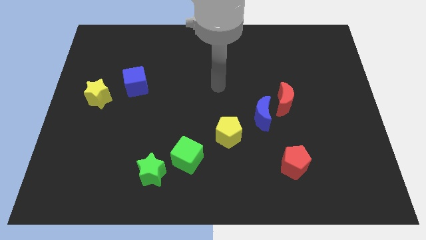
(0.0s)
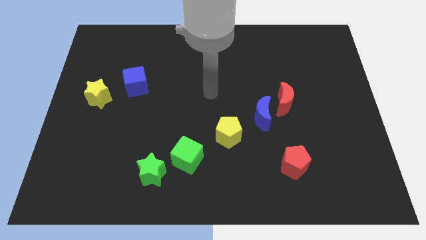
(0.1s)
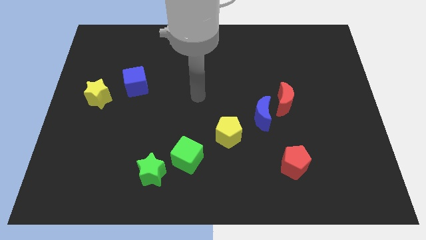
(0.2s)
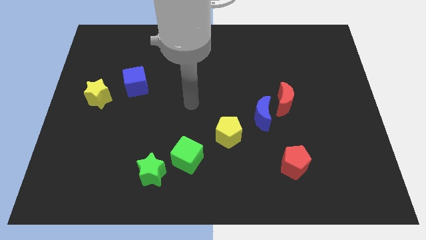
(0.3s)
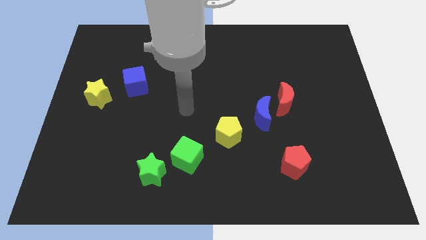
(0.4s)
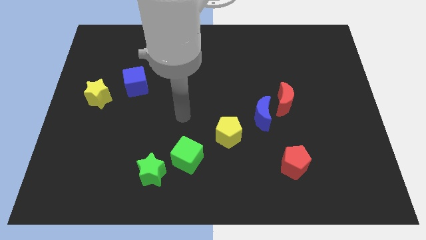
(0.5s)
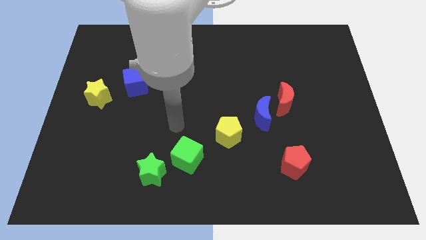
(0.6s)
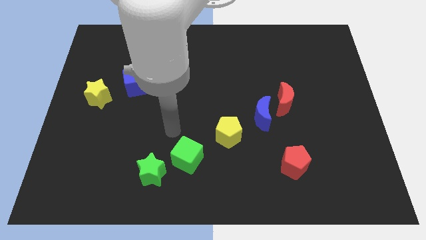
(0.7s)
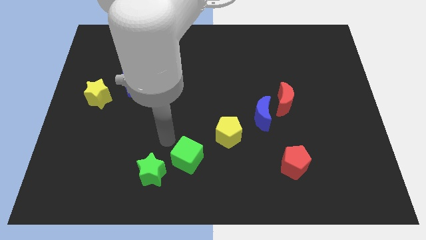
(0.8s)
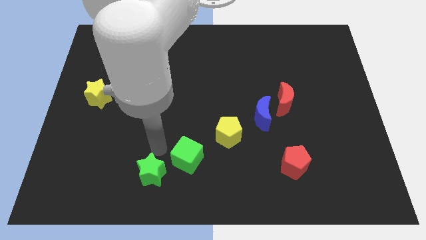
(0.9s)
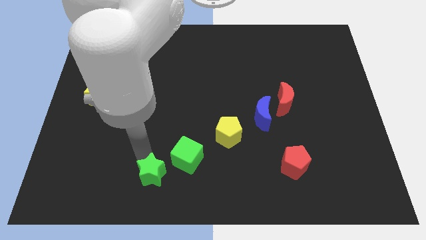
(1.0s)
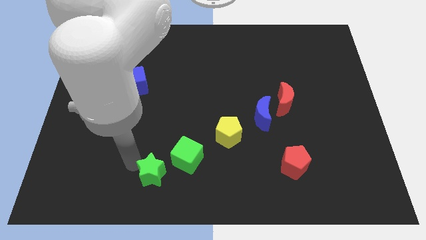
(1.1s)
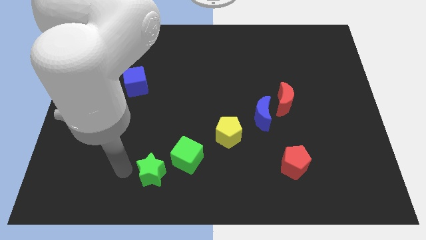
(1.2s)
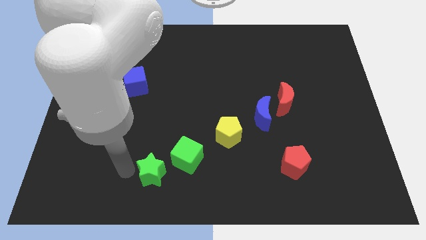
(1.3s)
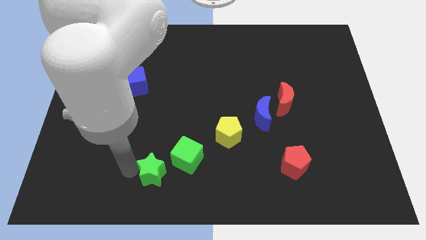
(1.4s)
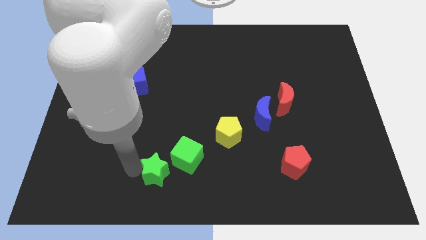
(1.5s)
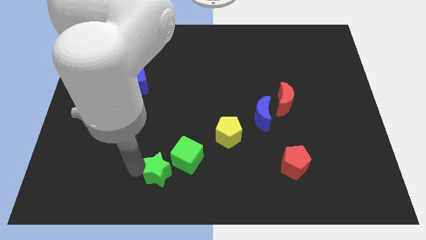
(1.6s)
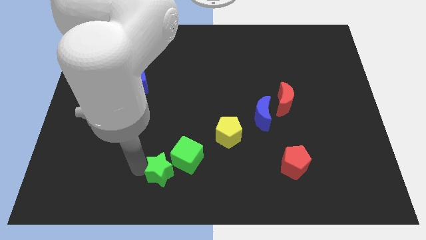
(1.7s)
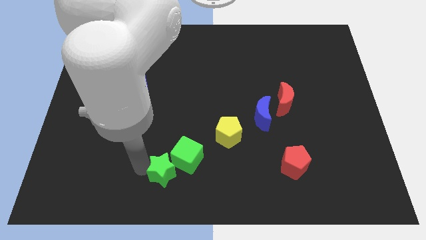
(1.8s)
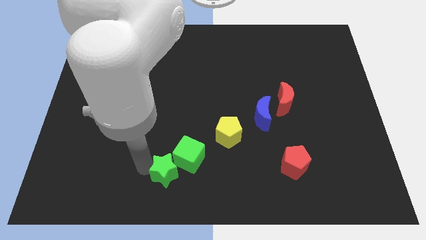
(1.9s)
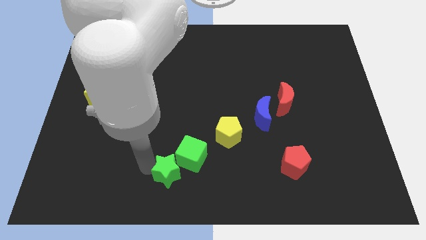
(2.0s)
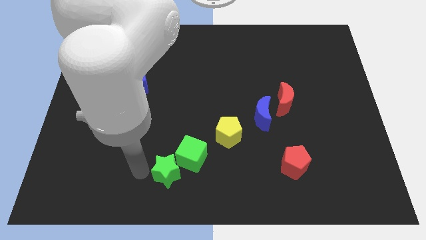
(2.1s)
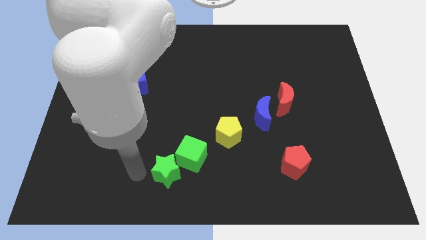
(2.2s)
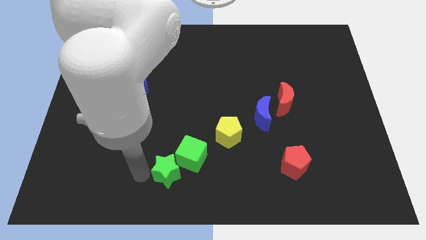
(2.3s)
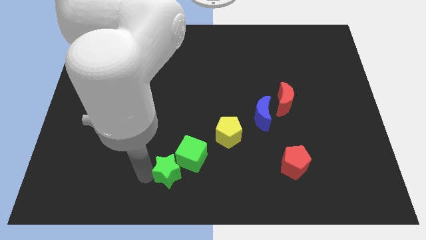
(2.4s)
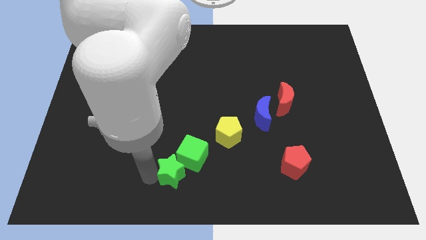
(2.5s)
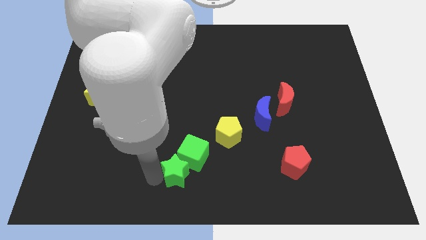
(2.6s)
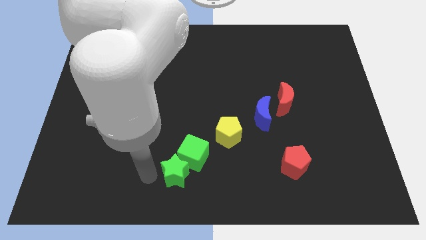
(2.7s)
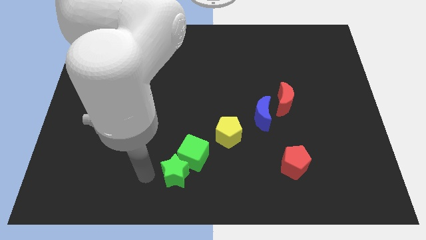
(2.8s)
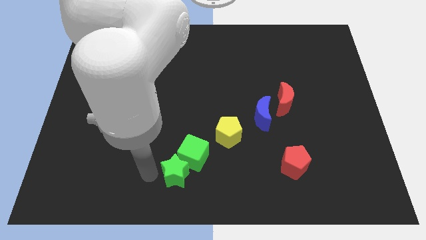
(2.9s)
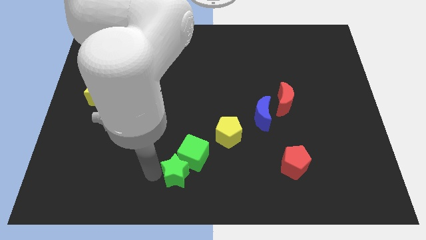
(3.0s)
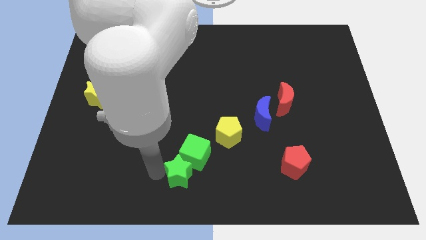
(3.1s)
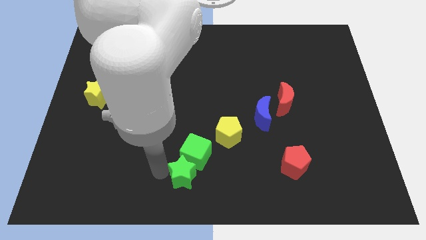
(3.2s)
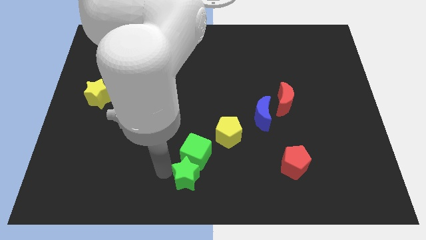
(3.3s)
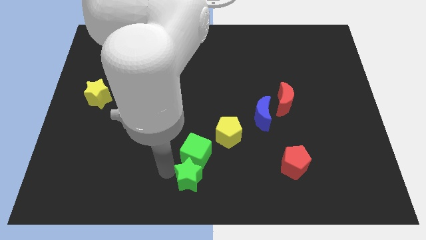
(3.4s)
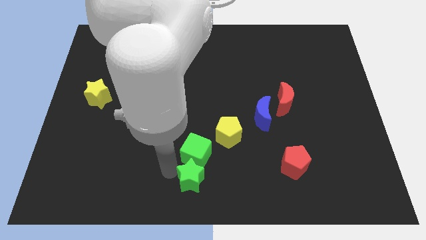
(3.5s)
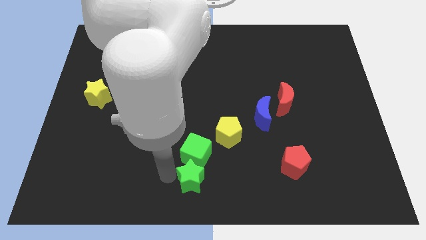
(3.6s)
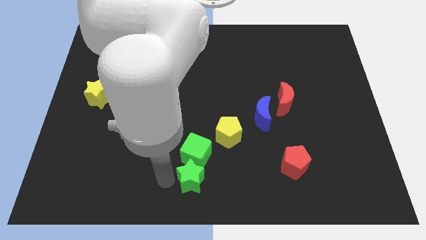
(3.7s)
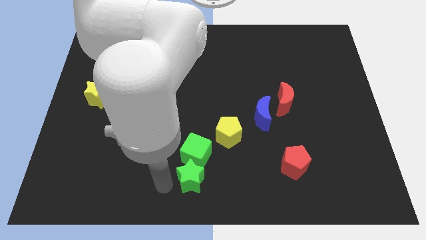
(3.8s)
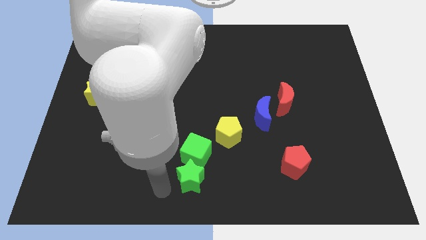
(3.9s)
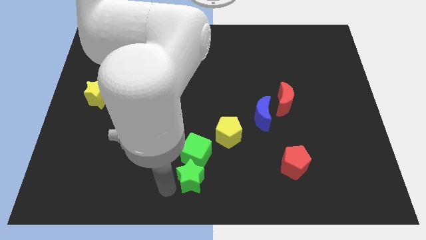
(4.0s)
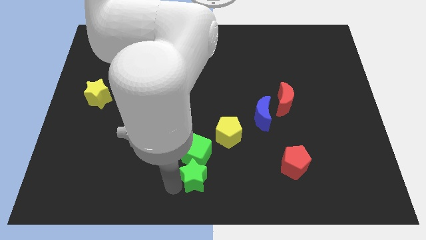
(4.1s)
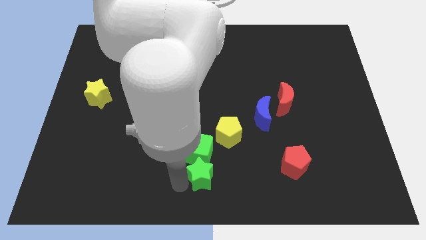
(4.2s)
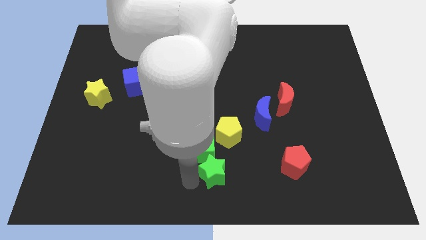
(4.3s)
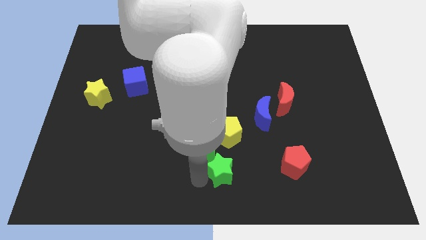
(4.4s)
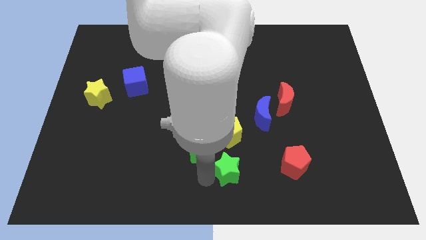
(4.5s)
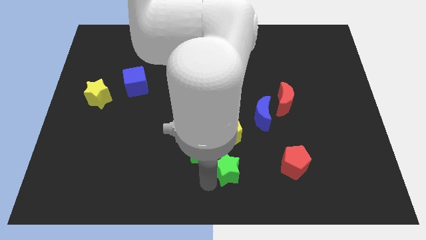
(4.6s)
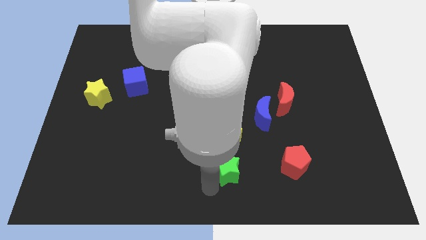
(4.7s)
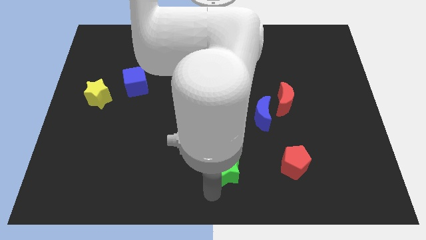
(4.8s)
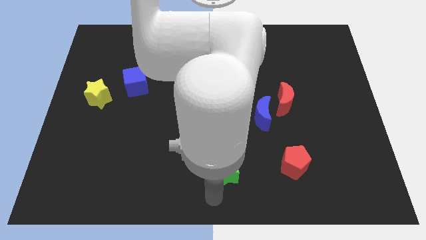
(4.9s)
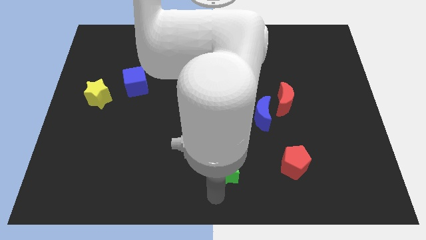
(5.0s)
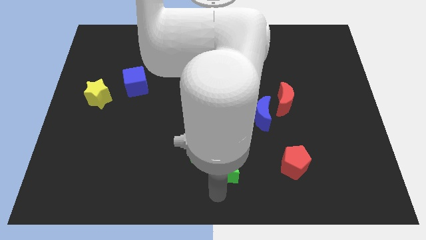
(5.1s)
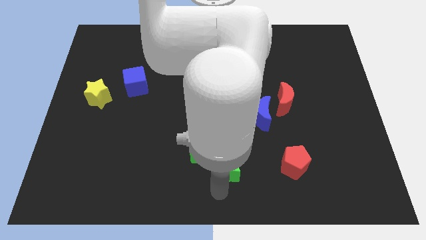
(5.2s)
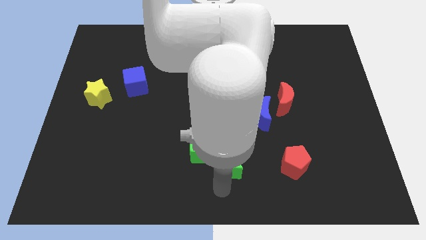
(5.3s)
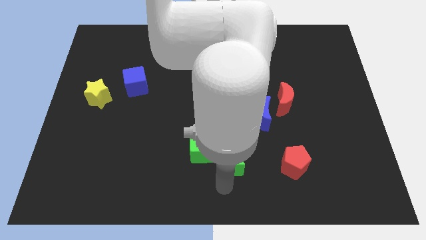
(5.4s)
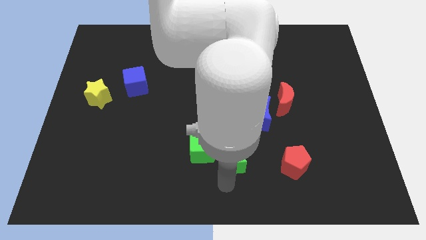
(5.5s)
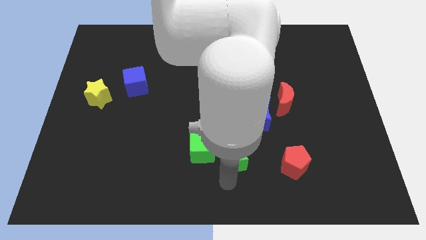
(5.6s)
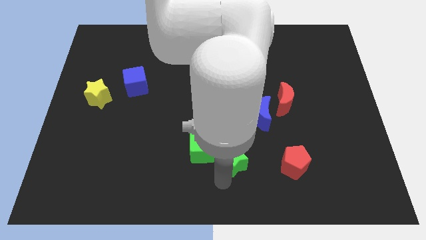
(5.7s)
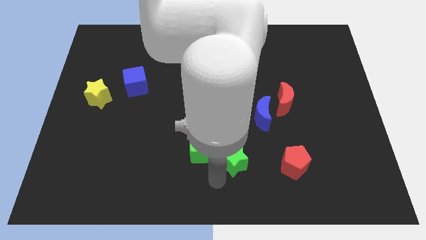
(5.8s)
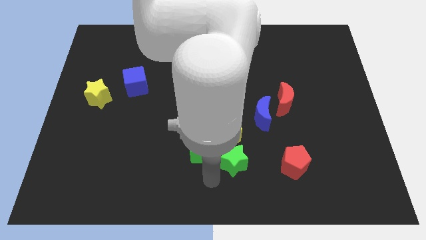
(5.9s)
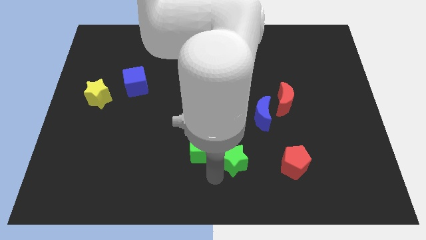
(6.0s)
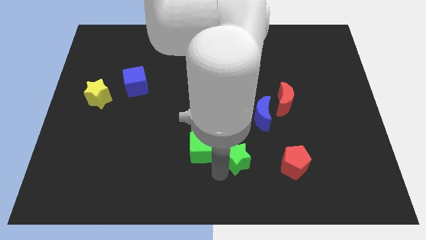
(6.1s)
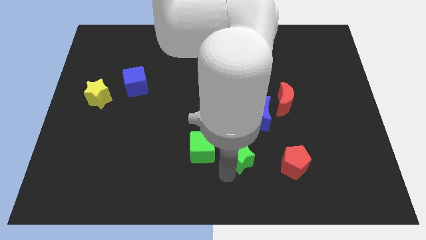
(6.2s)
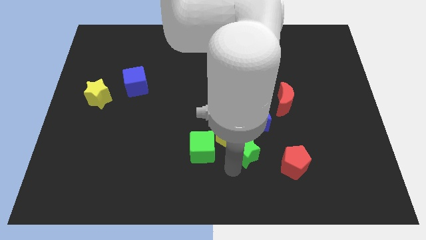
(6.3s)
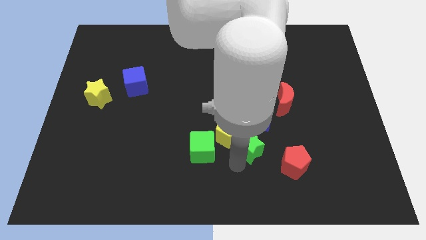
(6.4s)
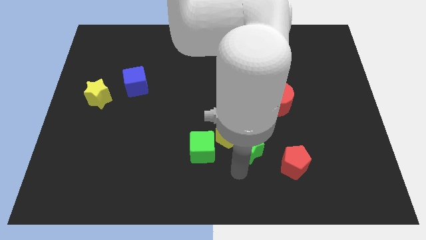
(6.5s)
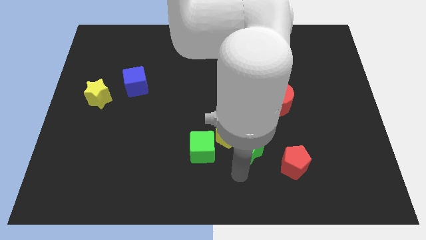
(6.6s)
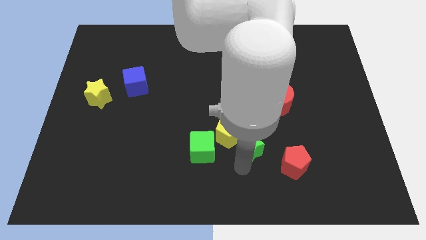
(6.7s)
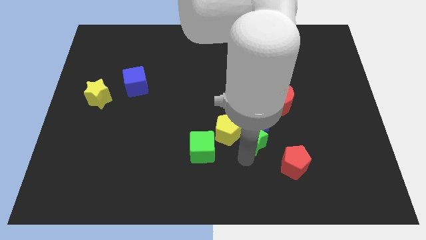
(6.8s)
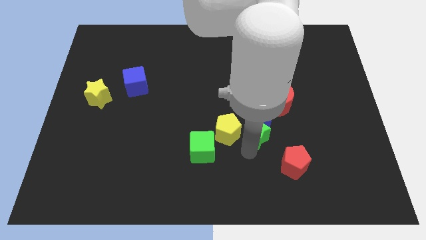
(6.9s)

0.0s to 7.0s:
move the green star to the blue moon

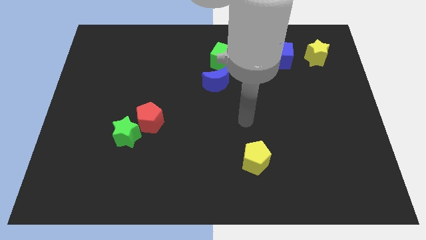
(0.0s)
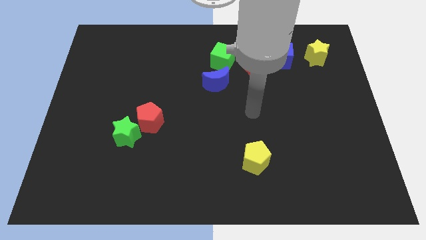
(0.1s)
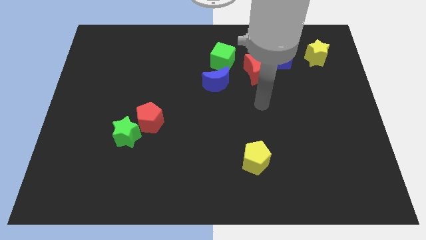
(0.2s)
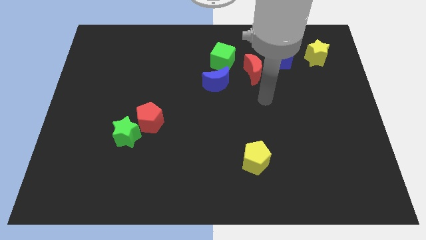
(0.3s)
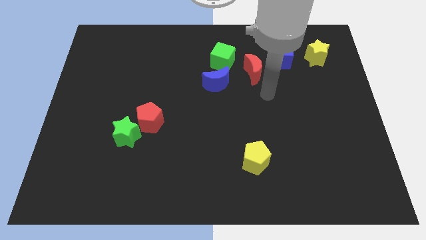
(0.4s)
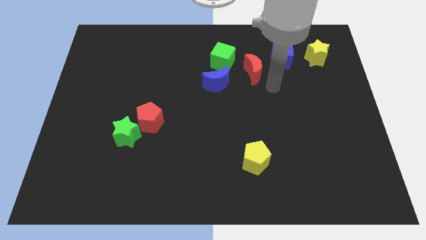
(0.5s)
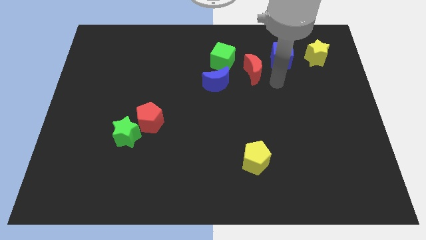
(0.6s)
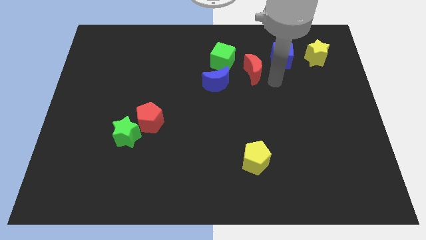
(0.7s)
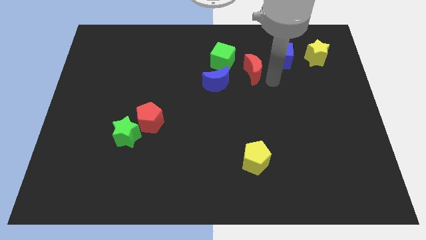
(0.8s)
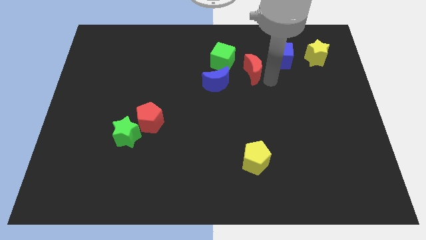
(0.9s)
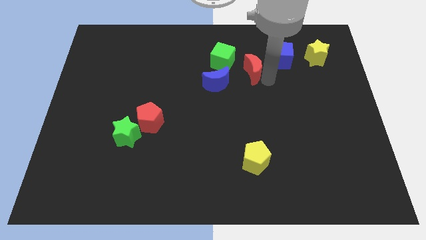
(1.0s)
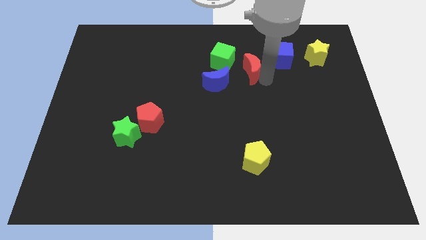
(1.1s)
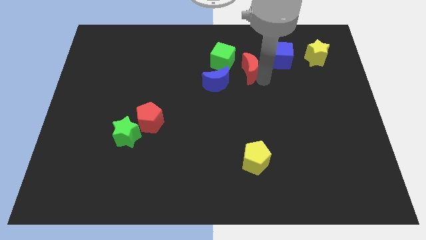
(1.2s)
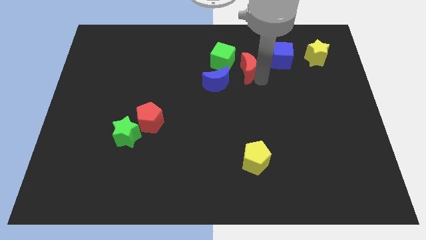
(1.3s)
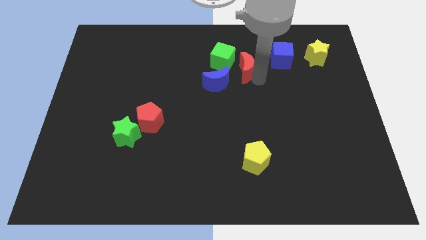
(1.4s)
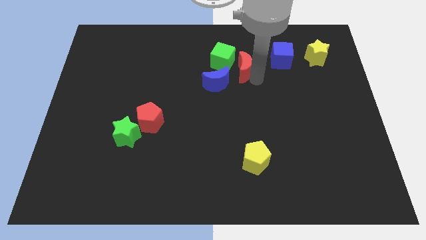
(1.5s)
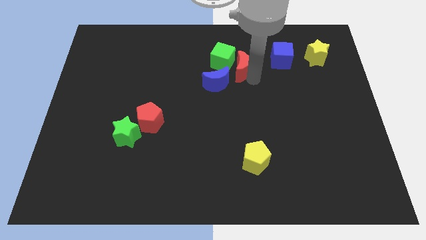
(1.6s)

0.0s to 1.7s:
slide the red moon next to the green cube
